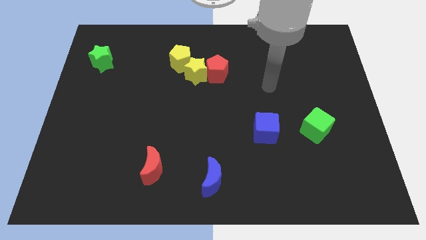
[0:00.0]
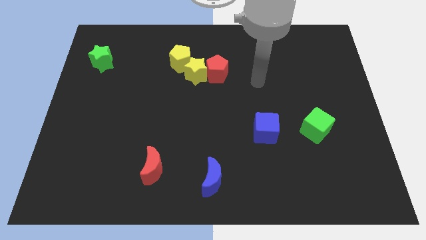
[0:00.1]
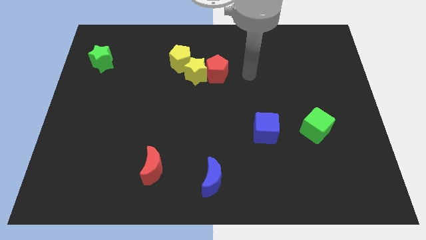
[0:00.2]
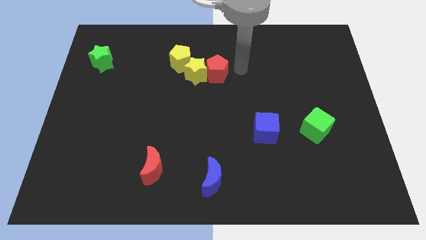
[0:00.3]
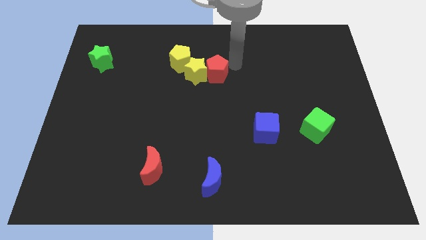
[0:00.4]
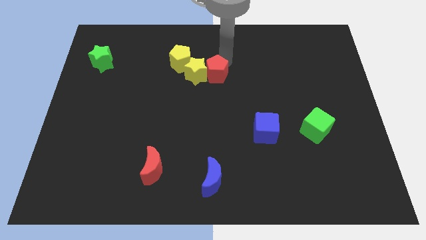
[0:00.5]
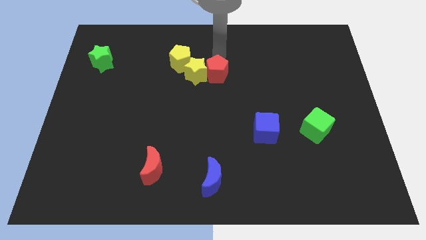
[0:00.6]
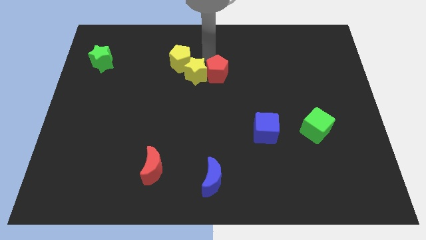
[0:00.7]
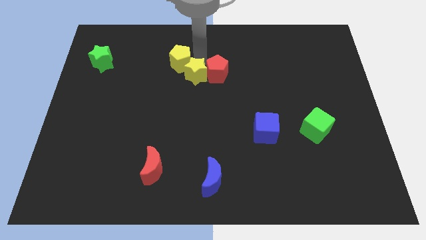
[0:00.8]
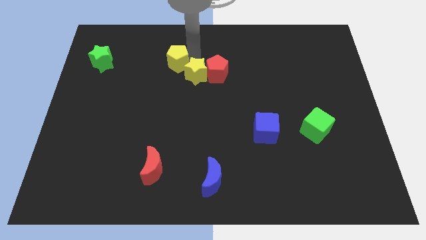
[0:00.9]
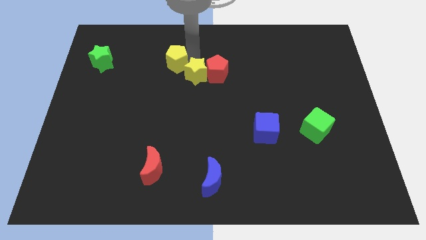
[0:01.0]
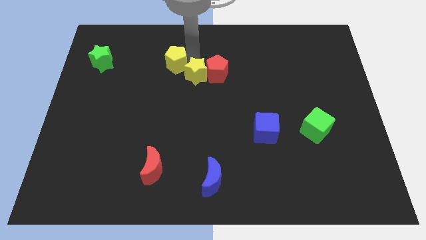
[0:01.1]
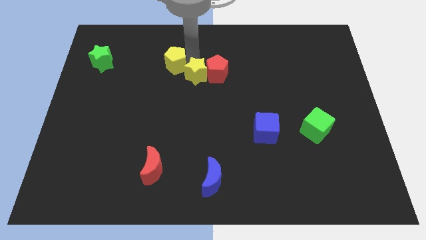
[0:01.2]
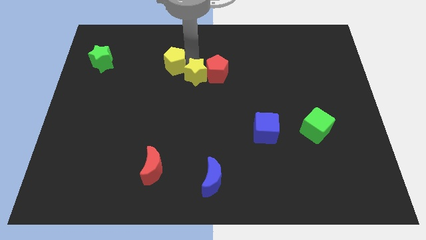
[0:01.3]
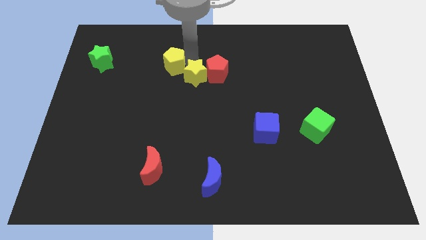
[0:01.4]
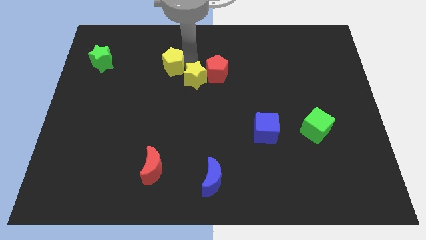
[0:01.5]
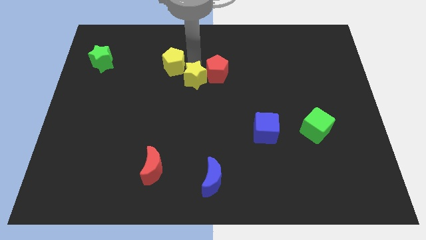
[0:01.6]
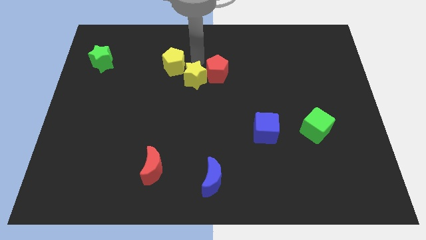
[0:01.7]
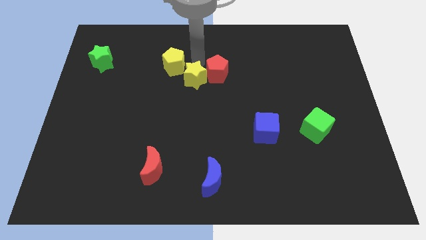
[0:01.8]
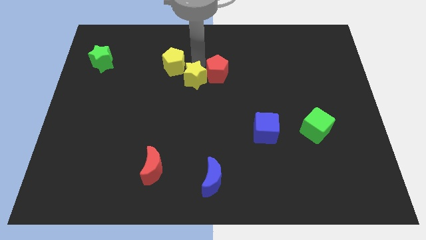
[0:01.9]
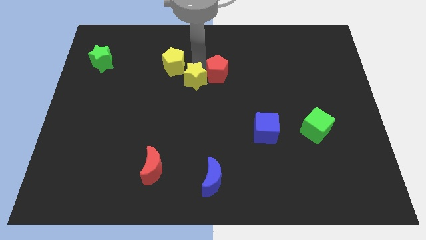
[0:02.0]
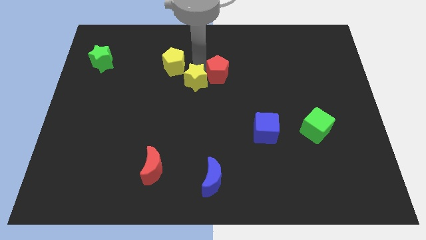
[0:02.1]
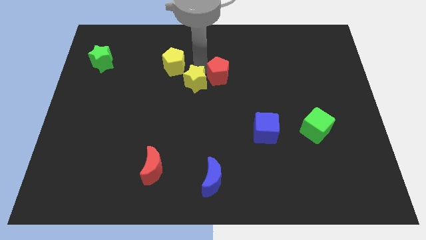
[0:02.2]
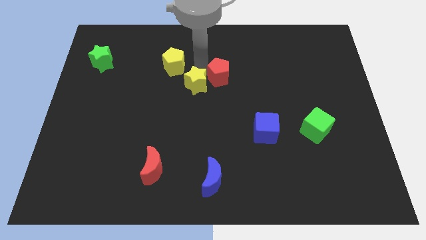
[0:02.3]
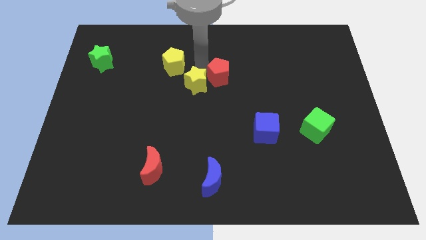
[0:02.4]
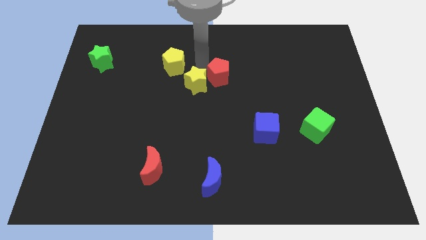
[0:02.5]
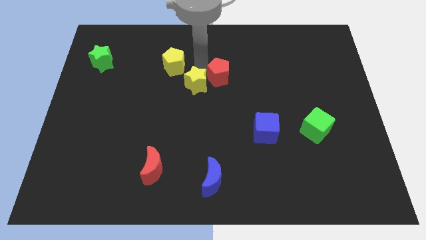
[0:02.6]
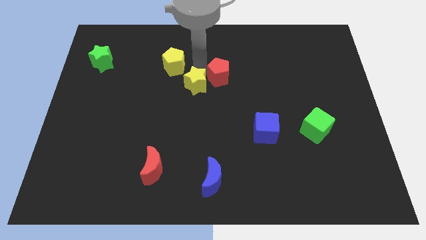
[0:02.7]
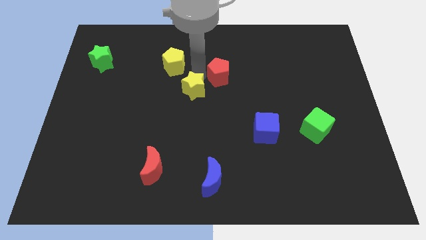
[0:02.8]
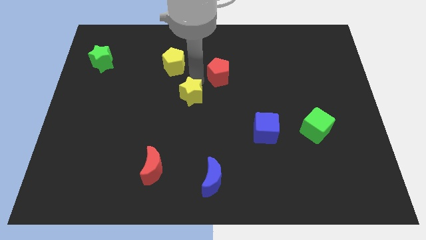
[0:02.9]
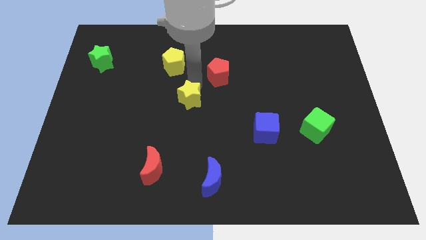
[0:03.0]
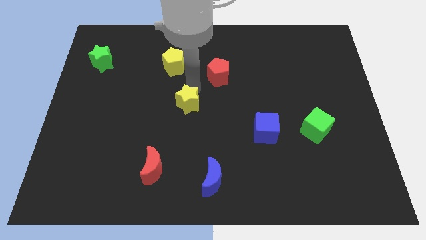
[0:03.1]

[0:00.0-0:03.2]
pull the yellow star apart from the red pentagon and yellow pentagon

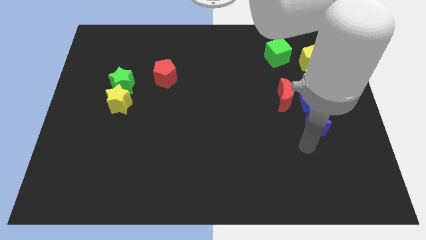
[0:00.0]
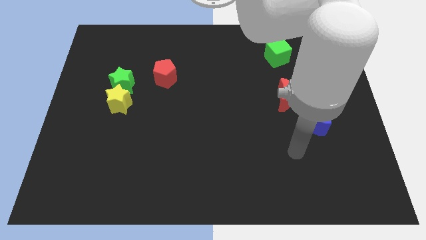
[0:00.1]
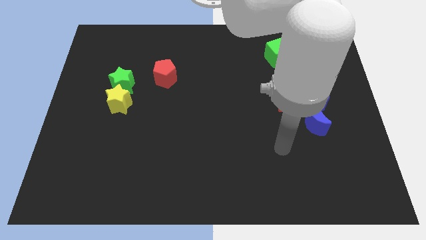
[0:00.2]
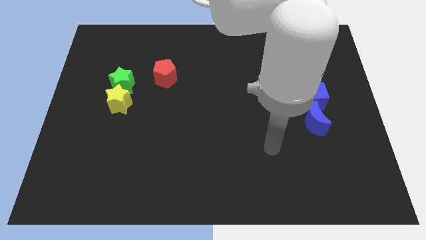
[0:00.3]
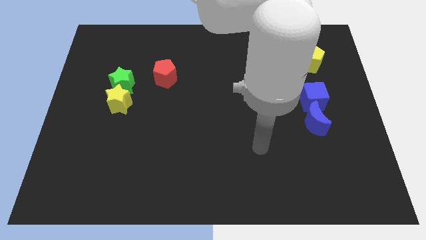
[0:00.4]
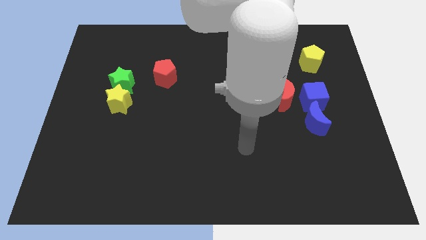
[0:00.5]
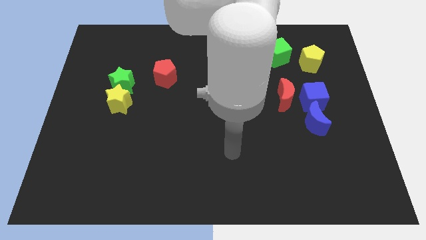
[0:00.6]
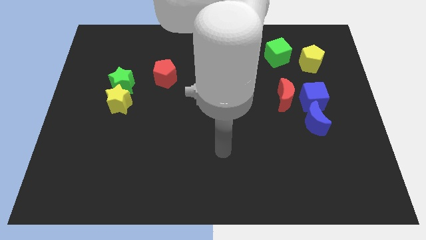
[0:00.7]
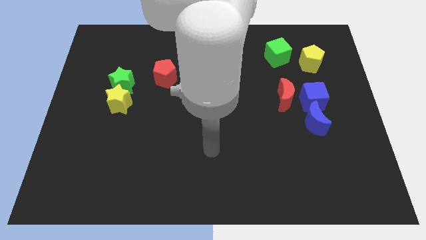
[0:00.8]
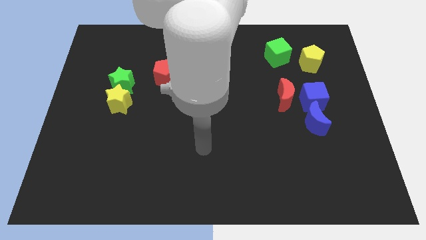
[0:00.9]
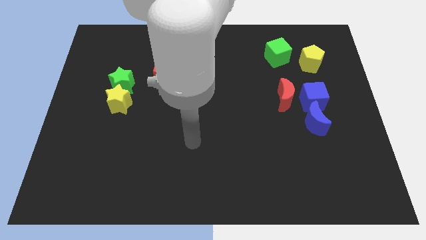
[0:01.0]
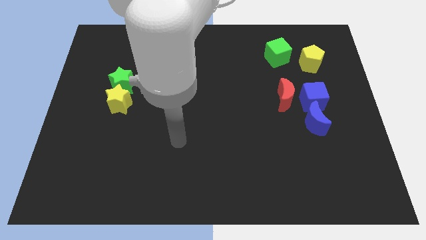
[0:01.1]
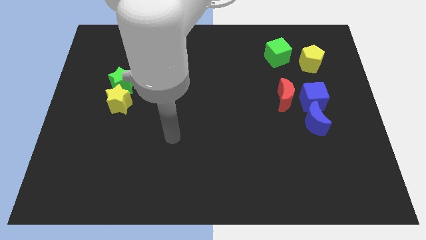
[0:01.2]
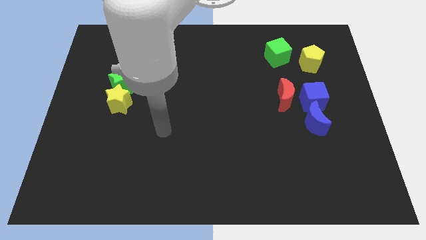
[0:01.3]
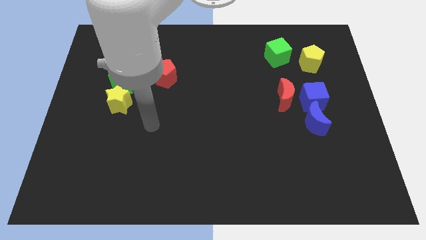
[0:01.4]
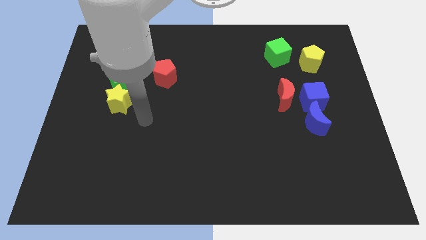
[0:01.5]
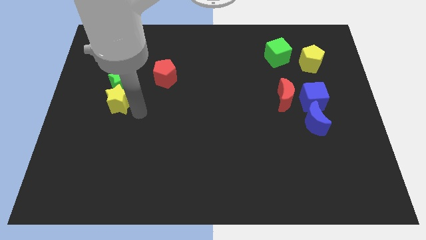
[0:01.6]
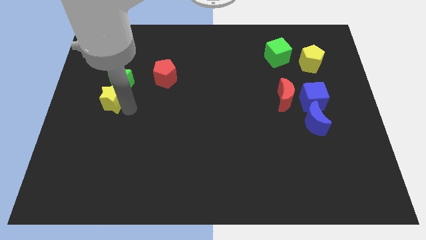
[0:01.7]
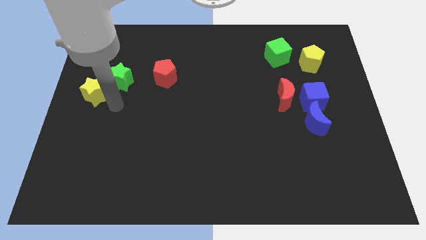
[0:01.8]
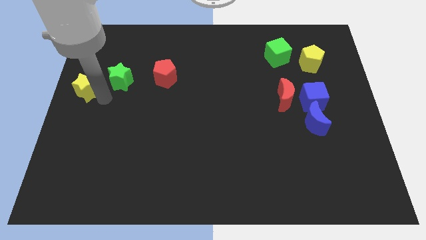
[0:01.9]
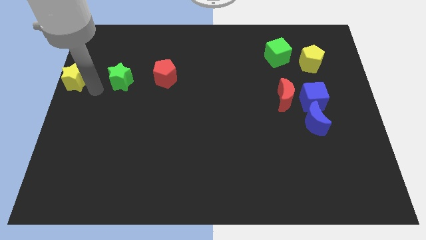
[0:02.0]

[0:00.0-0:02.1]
separate the green star from the yellow star

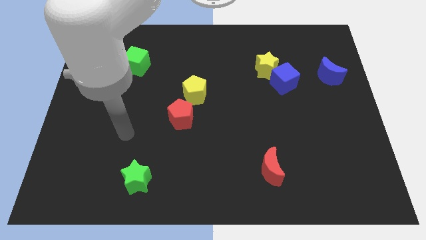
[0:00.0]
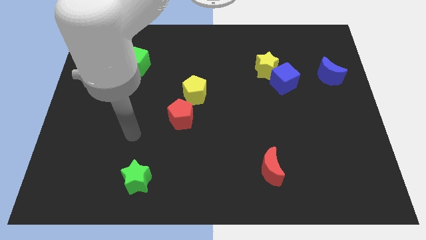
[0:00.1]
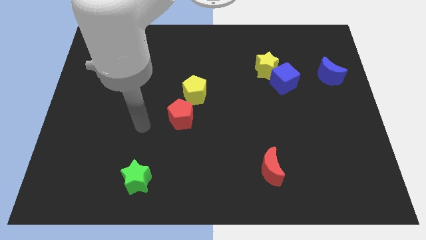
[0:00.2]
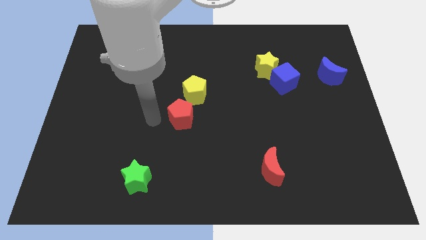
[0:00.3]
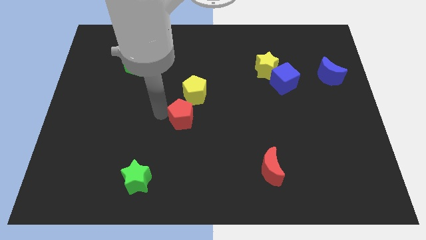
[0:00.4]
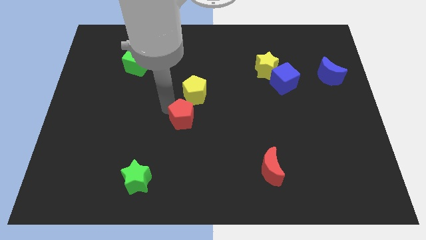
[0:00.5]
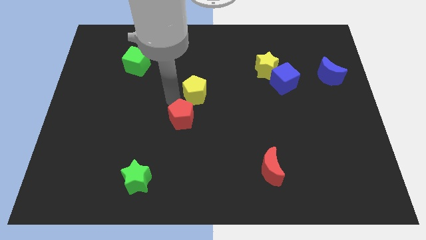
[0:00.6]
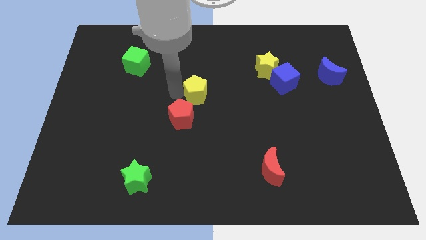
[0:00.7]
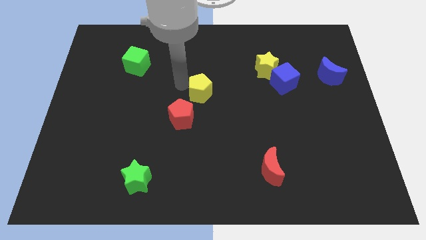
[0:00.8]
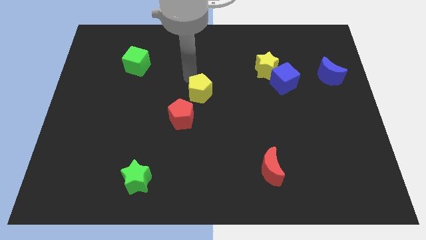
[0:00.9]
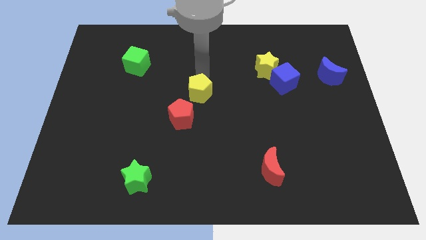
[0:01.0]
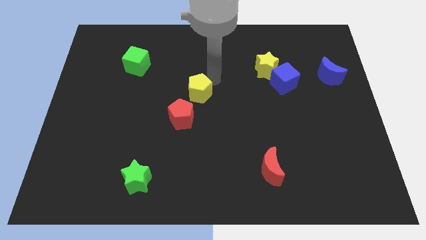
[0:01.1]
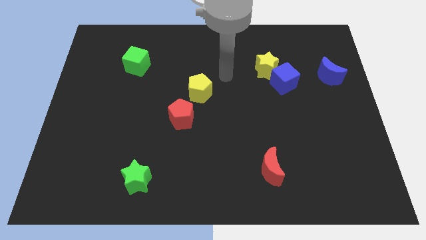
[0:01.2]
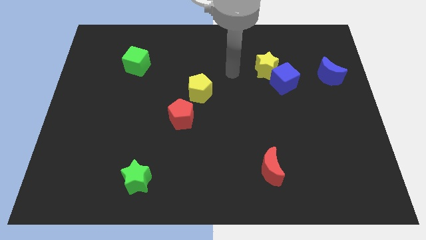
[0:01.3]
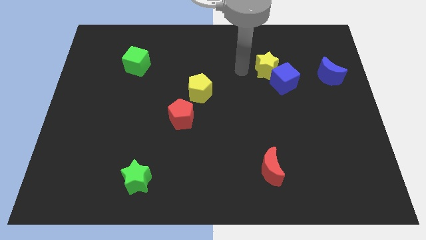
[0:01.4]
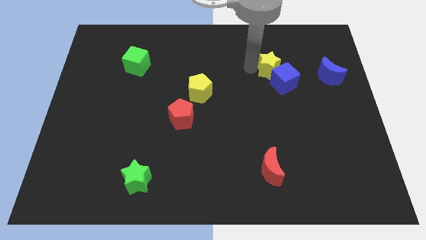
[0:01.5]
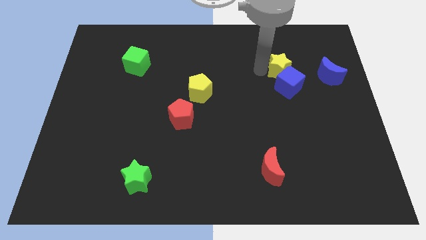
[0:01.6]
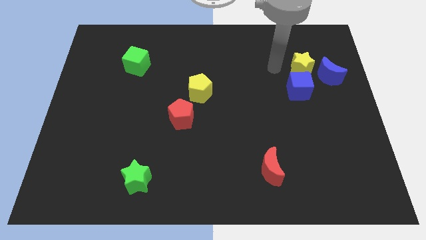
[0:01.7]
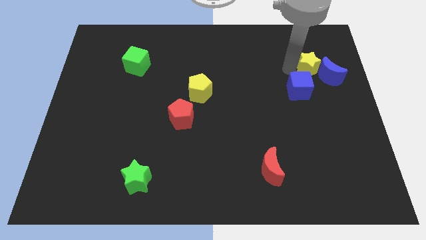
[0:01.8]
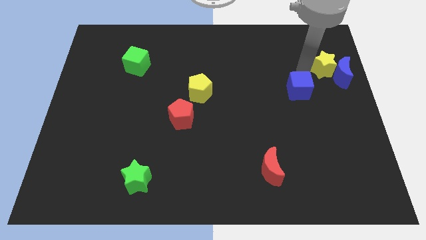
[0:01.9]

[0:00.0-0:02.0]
pull the blue cube apart from the yellow star

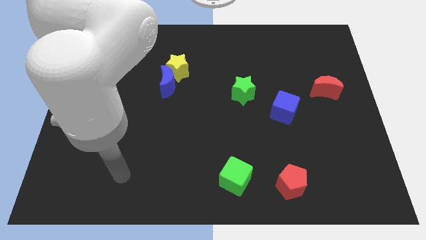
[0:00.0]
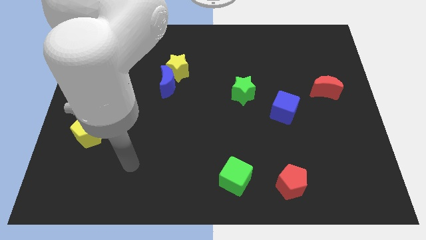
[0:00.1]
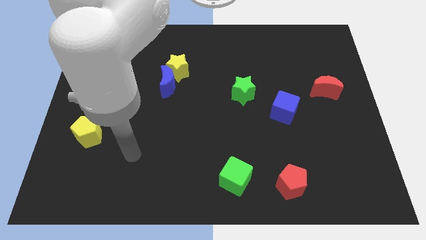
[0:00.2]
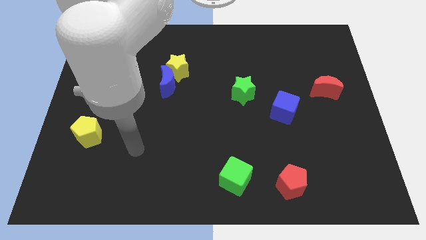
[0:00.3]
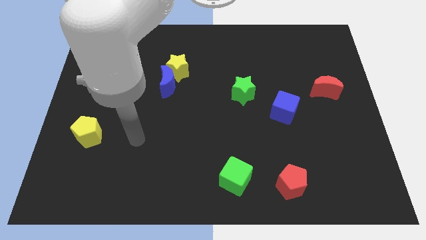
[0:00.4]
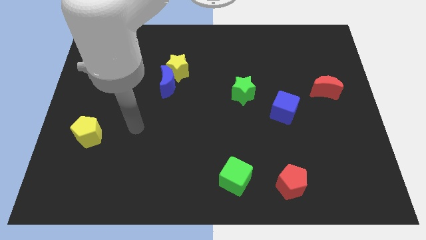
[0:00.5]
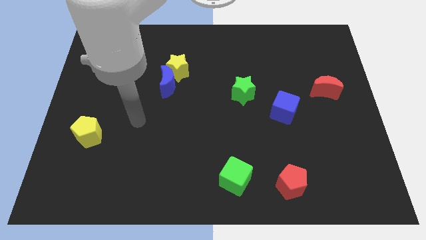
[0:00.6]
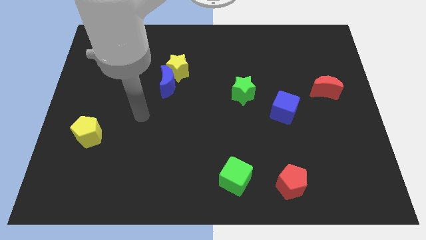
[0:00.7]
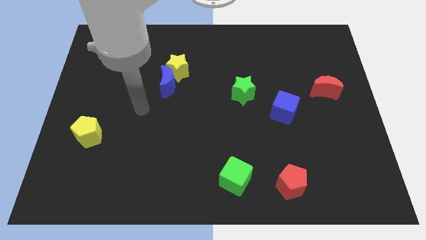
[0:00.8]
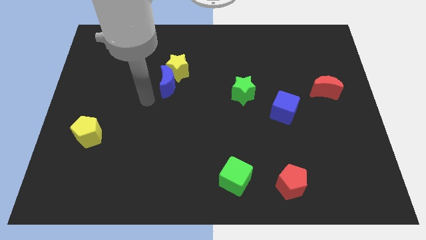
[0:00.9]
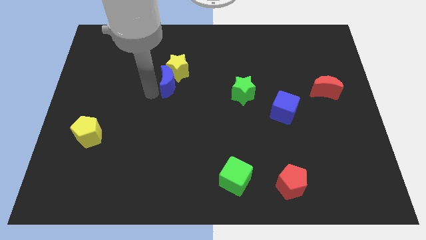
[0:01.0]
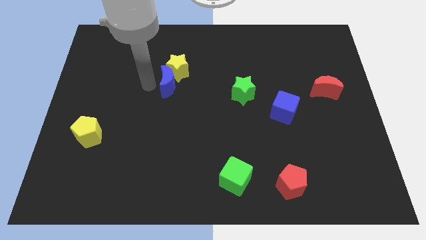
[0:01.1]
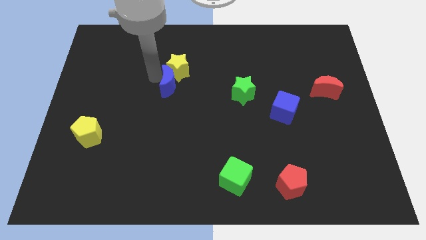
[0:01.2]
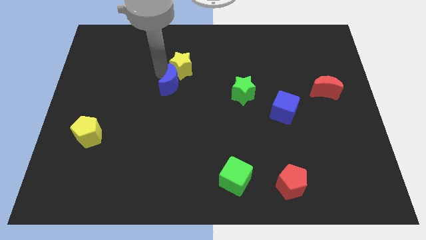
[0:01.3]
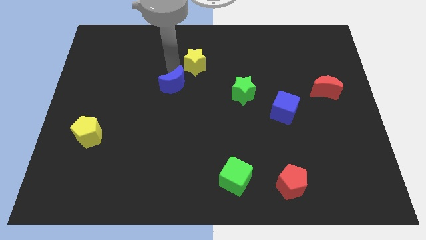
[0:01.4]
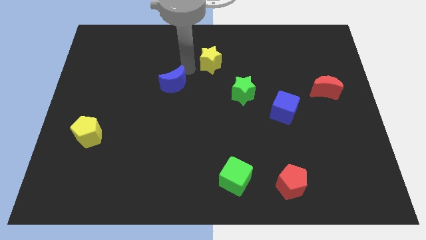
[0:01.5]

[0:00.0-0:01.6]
move the blue moon away from the yellow star

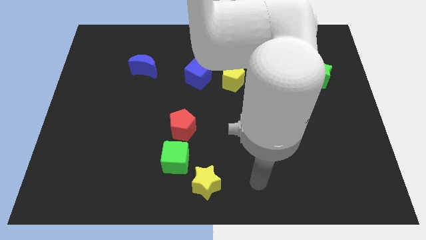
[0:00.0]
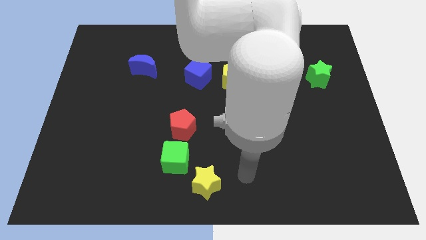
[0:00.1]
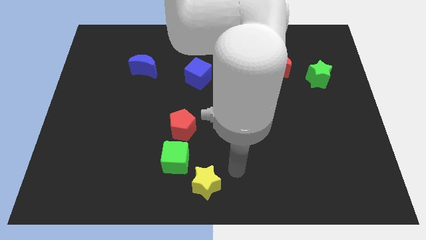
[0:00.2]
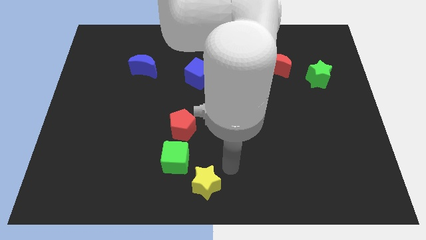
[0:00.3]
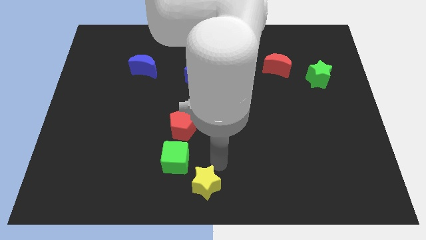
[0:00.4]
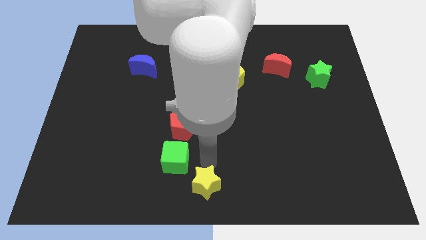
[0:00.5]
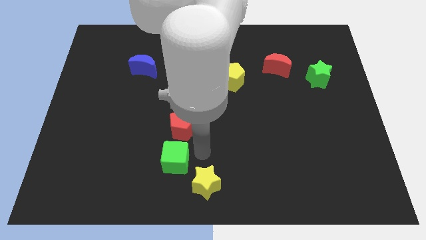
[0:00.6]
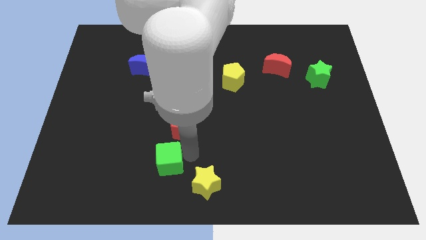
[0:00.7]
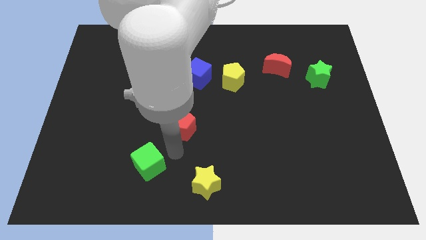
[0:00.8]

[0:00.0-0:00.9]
pull the red pentagon apart from the green cube
